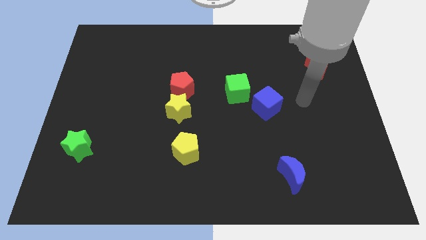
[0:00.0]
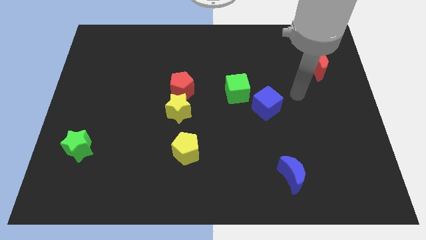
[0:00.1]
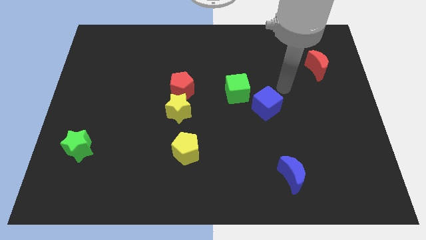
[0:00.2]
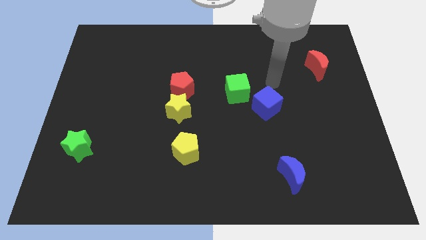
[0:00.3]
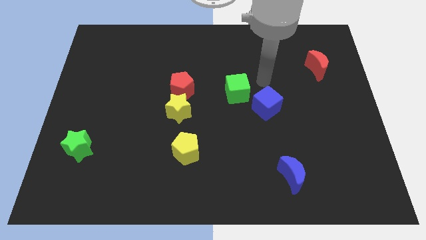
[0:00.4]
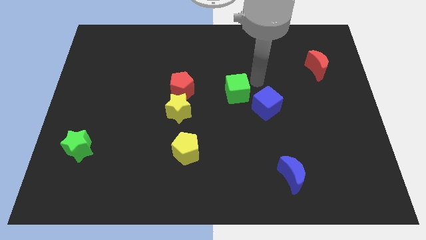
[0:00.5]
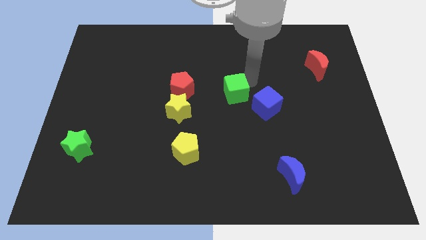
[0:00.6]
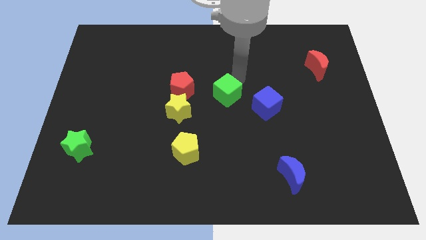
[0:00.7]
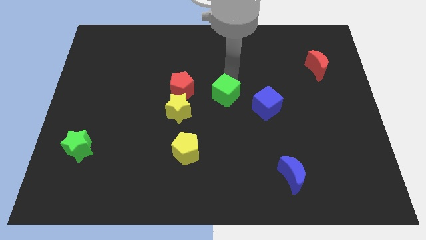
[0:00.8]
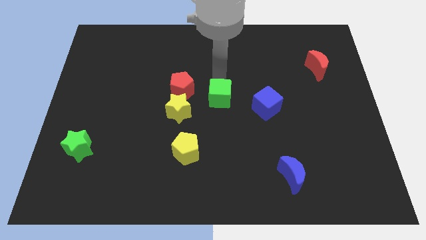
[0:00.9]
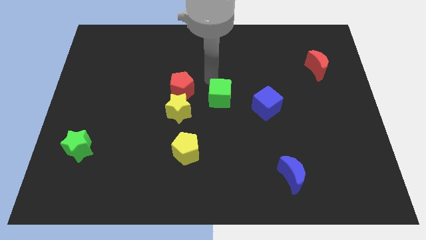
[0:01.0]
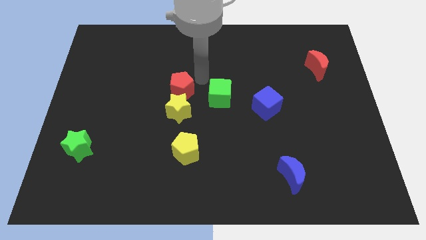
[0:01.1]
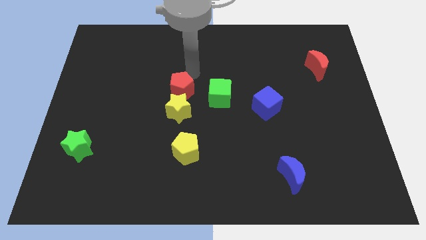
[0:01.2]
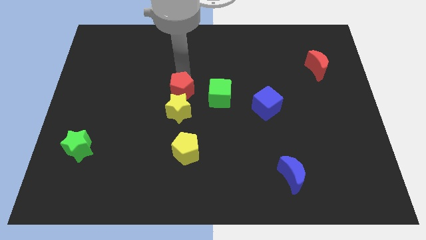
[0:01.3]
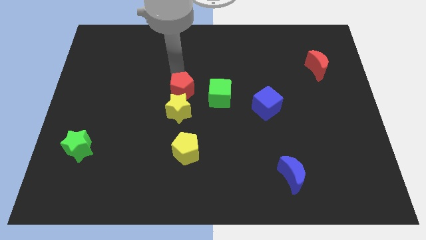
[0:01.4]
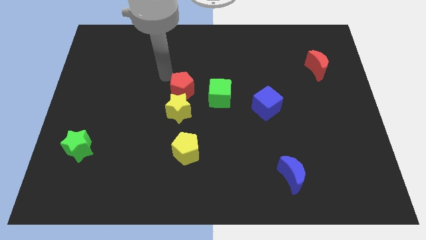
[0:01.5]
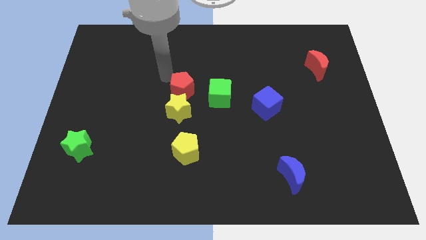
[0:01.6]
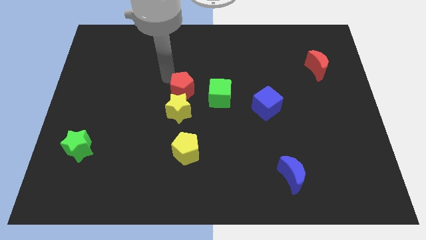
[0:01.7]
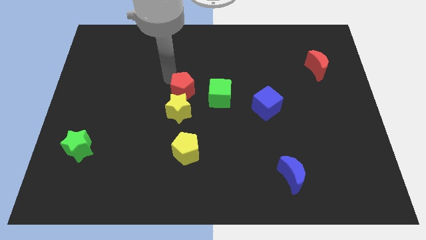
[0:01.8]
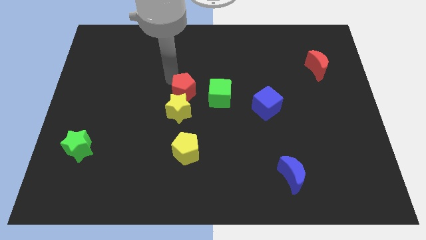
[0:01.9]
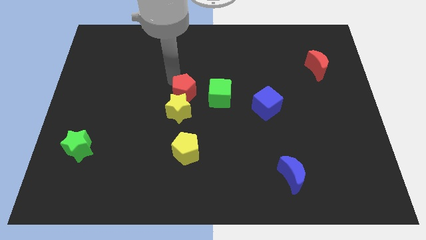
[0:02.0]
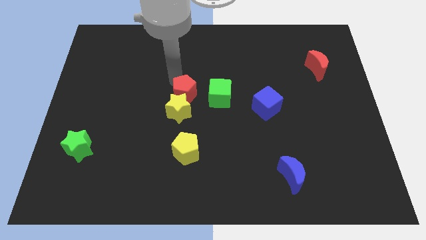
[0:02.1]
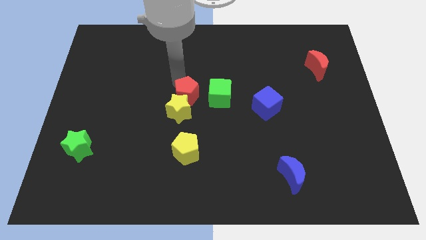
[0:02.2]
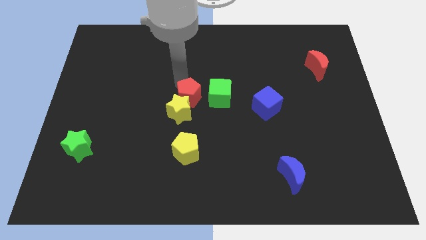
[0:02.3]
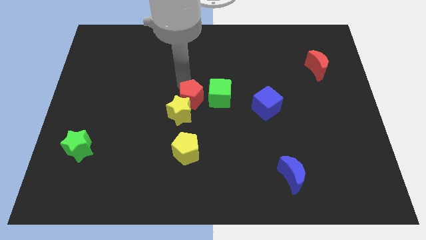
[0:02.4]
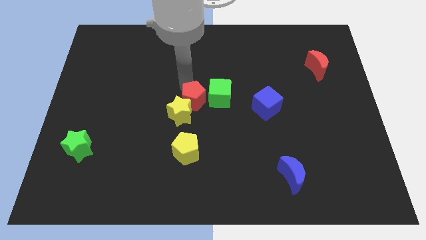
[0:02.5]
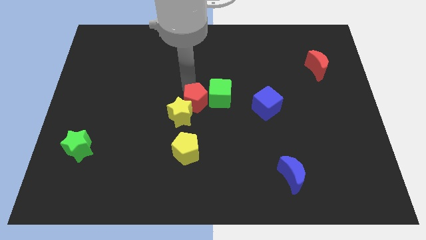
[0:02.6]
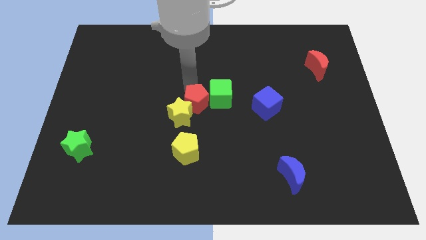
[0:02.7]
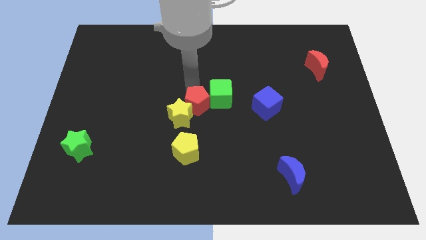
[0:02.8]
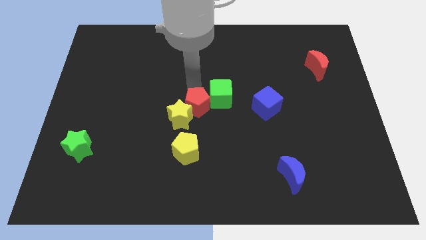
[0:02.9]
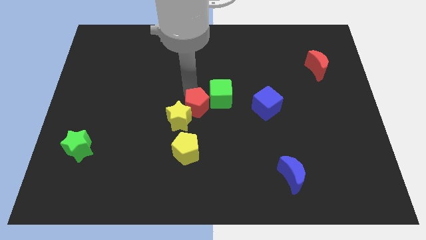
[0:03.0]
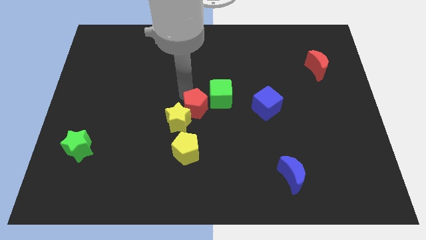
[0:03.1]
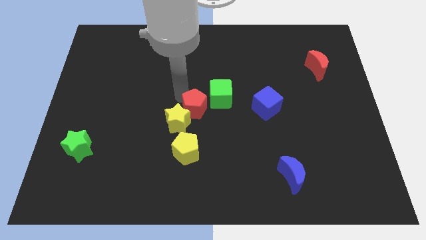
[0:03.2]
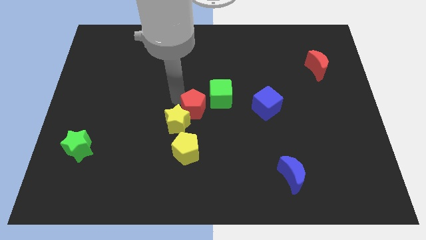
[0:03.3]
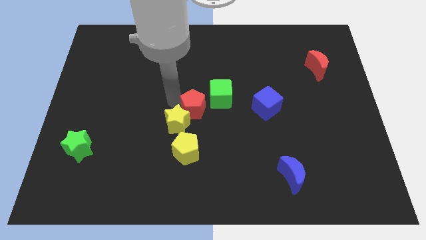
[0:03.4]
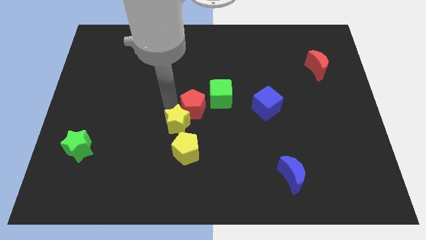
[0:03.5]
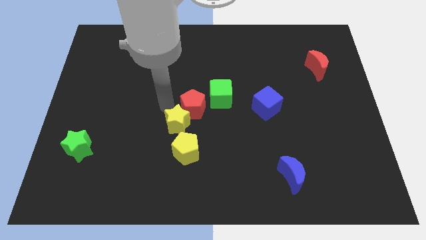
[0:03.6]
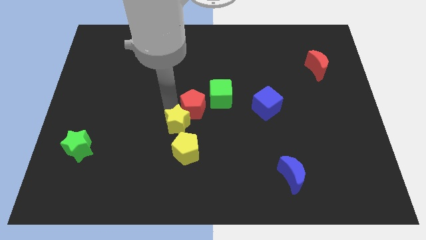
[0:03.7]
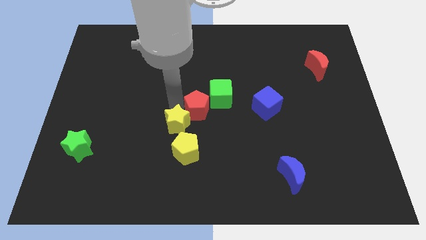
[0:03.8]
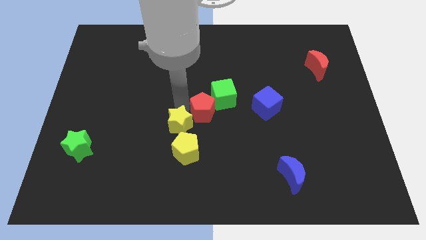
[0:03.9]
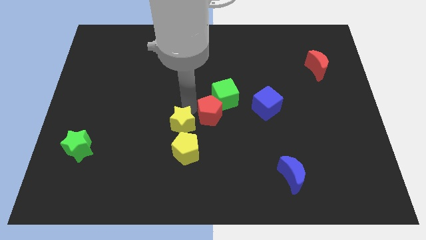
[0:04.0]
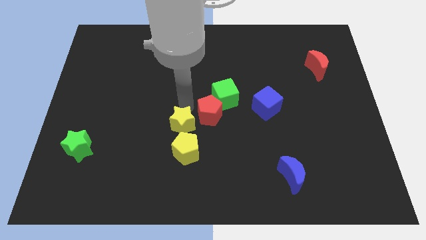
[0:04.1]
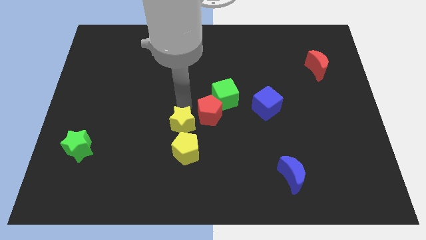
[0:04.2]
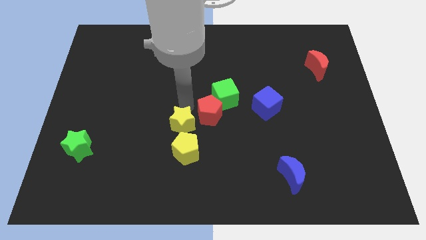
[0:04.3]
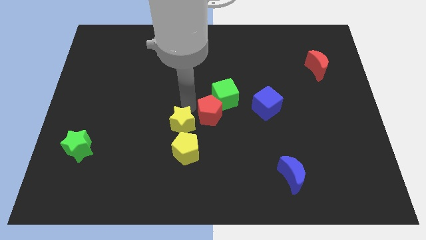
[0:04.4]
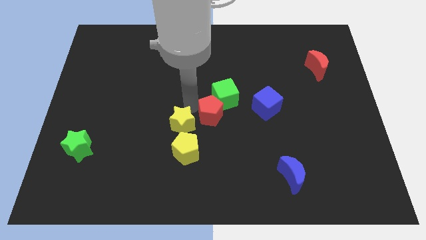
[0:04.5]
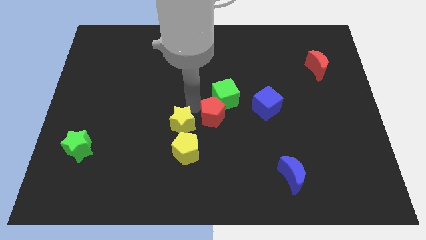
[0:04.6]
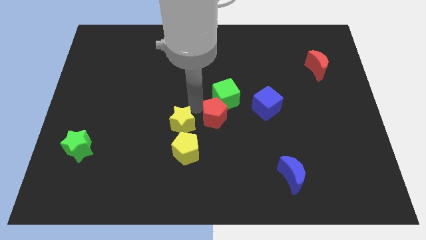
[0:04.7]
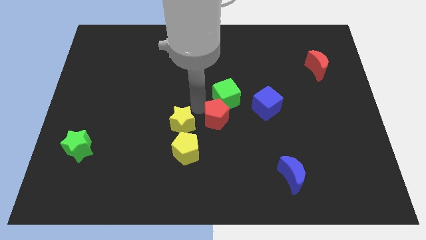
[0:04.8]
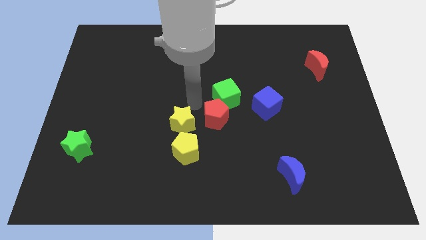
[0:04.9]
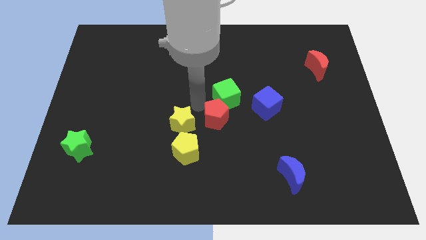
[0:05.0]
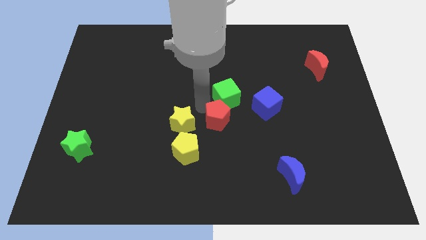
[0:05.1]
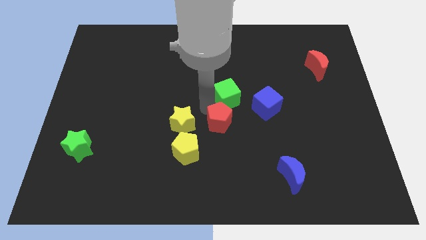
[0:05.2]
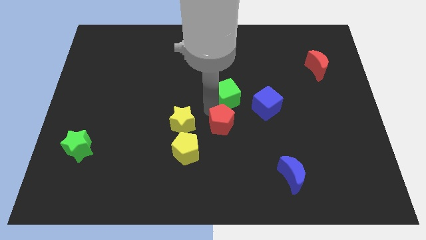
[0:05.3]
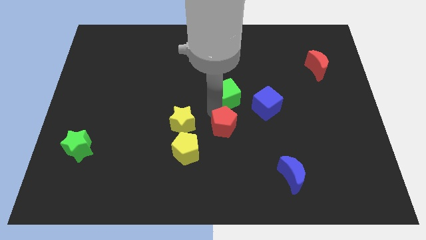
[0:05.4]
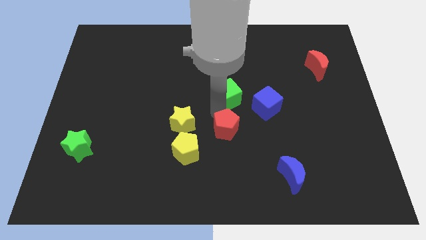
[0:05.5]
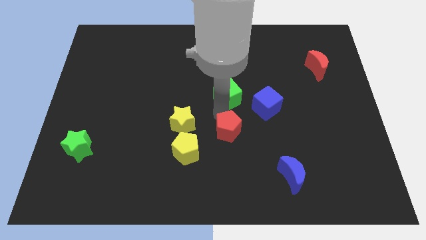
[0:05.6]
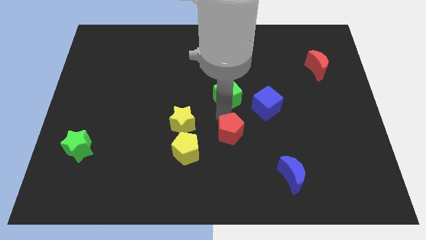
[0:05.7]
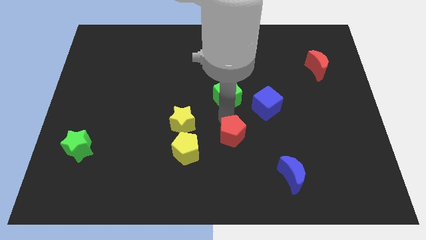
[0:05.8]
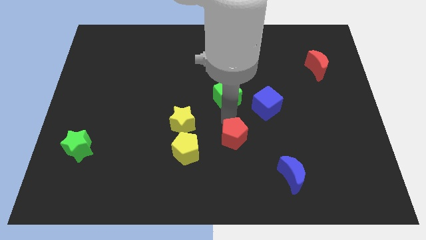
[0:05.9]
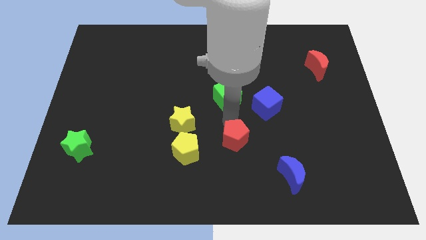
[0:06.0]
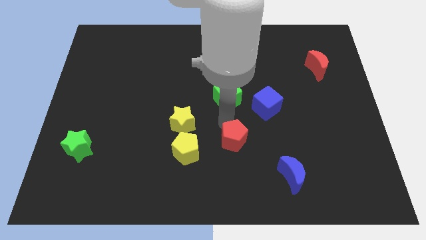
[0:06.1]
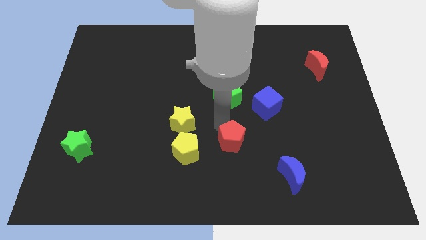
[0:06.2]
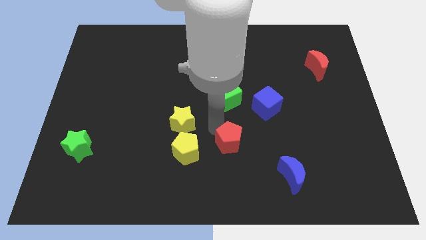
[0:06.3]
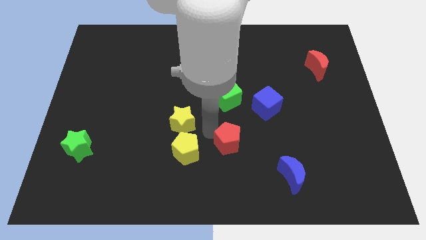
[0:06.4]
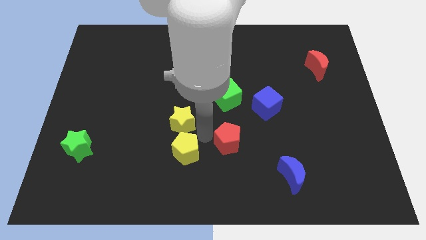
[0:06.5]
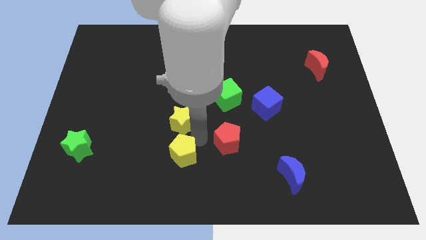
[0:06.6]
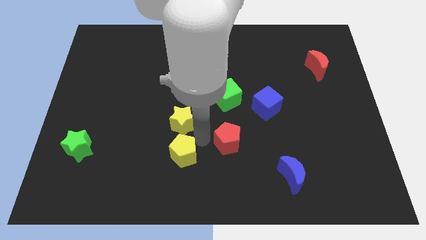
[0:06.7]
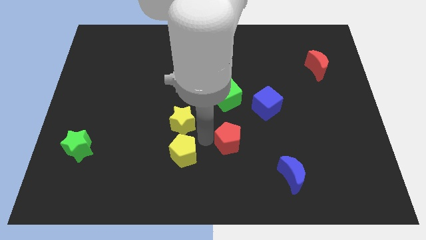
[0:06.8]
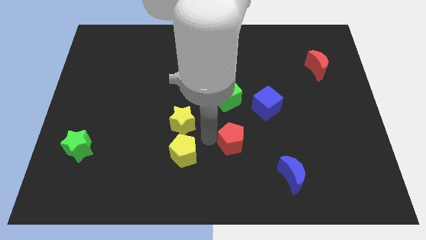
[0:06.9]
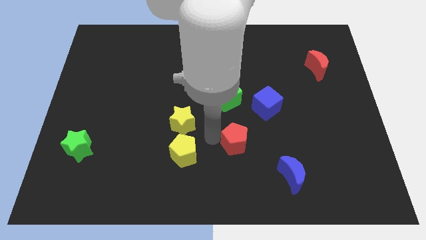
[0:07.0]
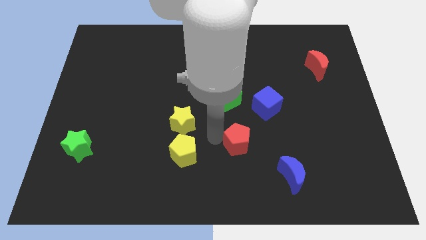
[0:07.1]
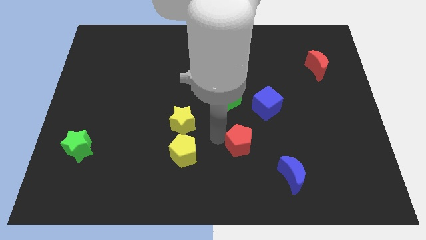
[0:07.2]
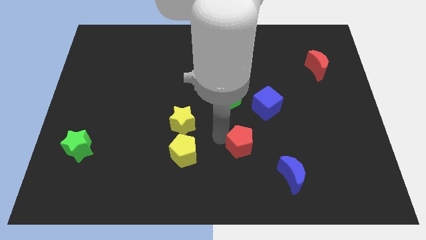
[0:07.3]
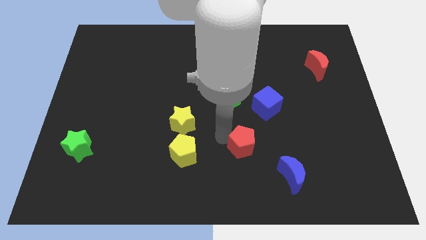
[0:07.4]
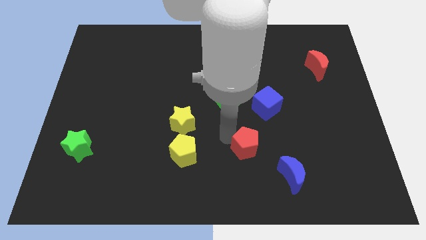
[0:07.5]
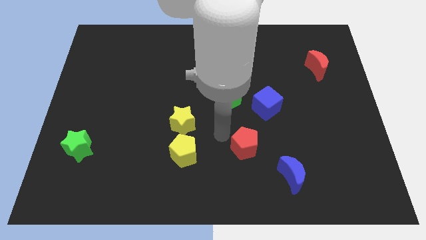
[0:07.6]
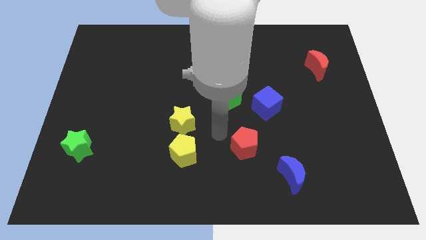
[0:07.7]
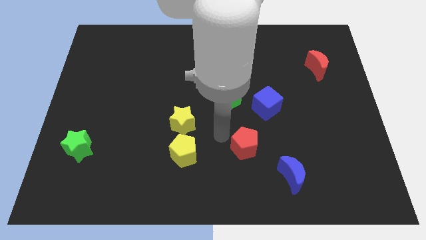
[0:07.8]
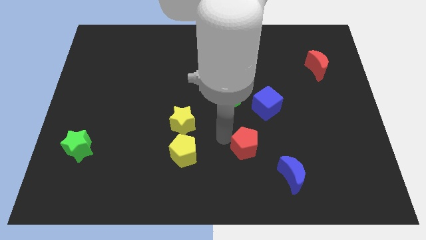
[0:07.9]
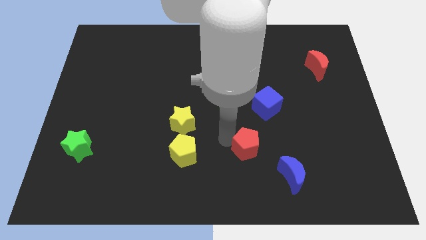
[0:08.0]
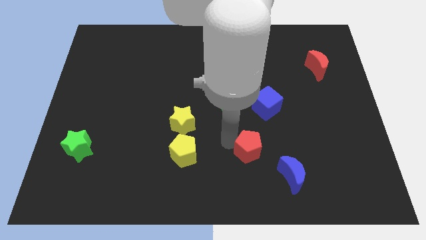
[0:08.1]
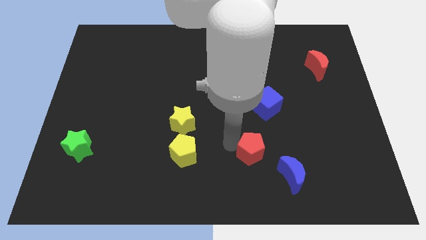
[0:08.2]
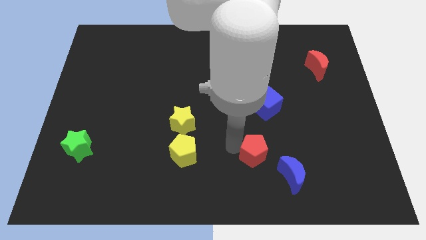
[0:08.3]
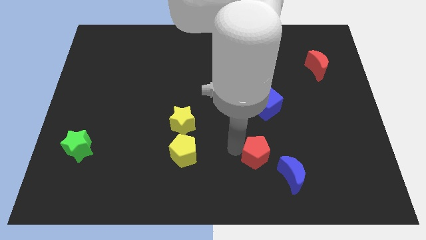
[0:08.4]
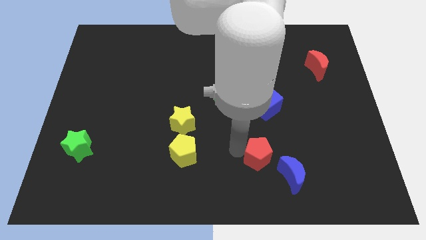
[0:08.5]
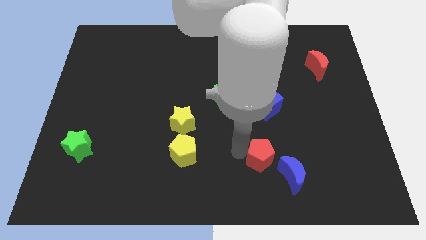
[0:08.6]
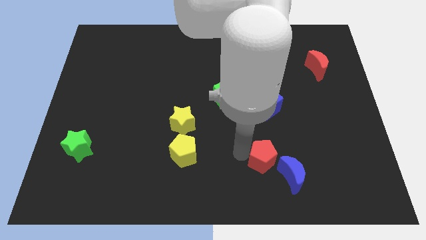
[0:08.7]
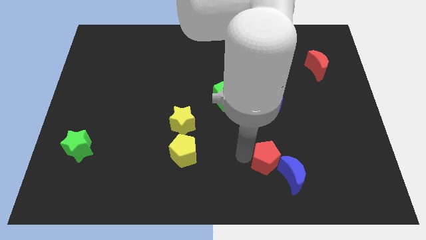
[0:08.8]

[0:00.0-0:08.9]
push the red pentagon close to the blue moon
